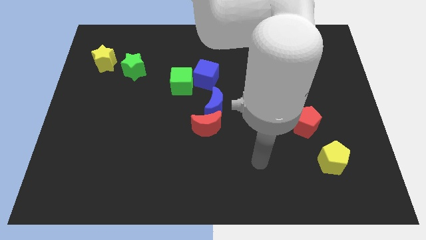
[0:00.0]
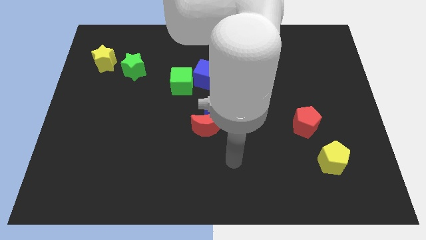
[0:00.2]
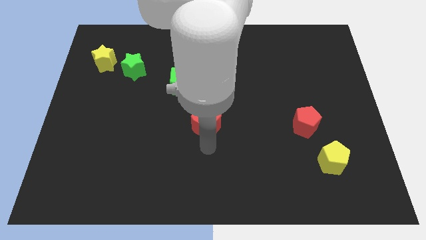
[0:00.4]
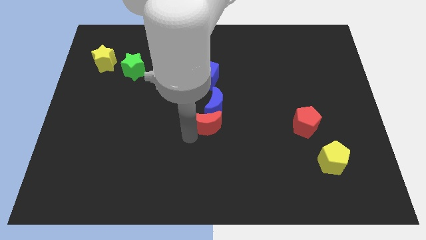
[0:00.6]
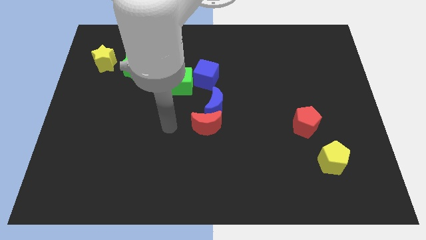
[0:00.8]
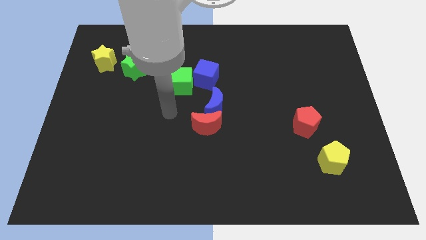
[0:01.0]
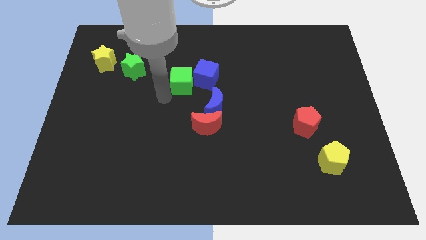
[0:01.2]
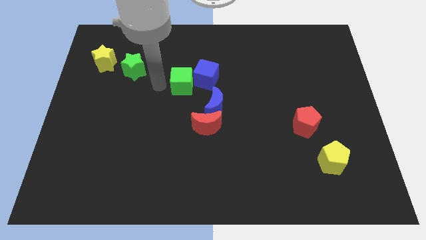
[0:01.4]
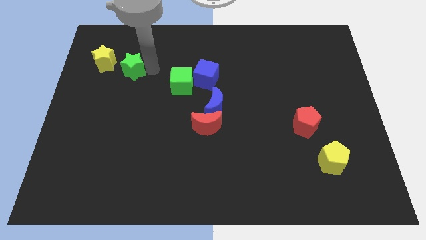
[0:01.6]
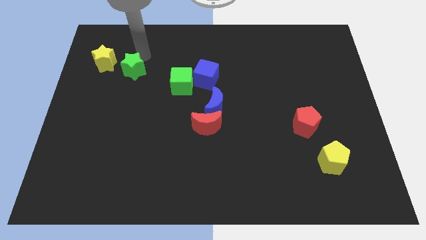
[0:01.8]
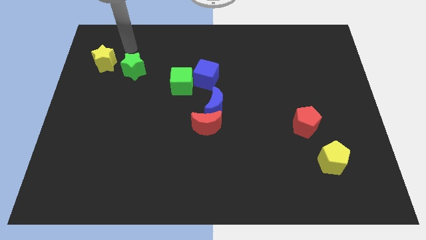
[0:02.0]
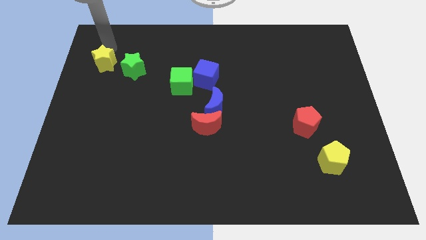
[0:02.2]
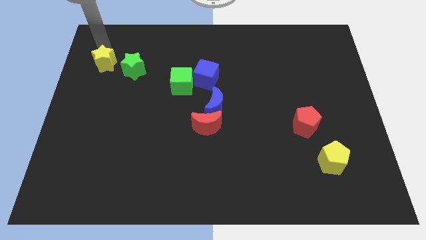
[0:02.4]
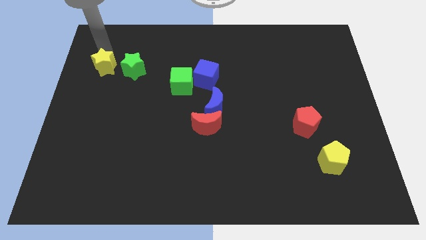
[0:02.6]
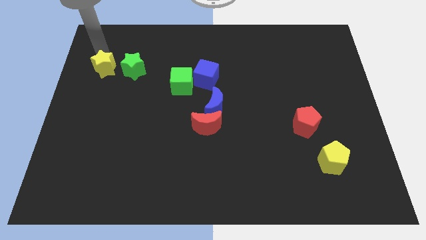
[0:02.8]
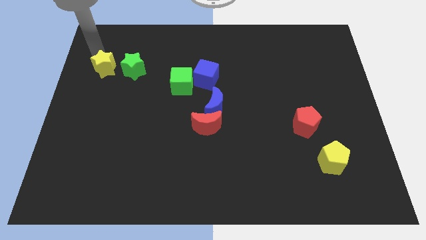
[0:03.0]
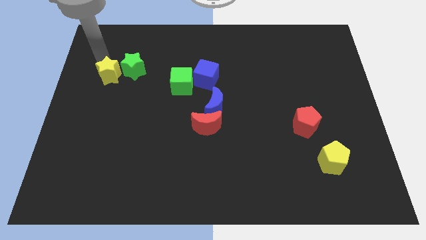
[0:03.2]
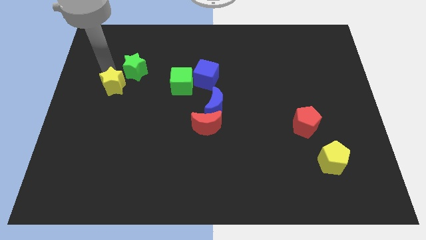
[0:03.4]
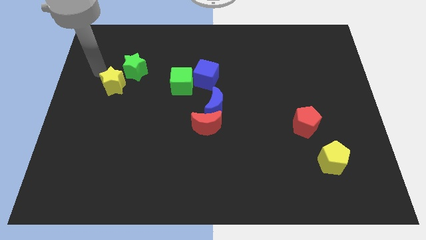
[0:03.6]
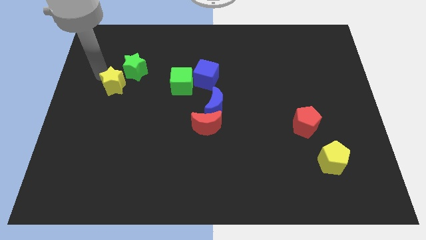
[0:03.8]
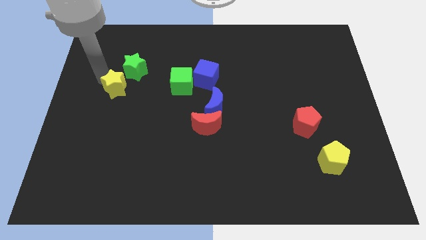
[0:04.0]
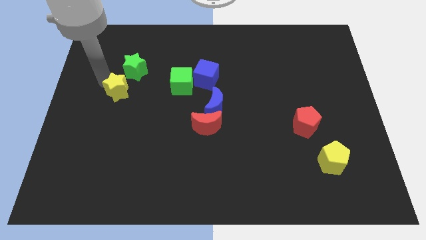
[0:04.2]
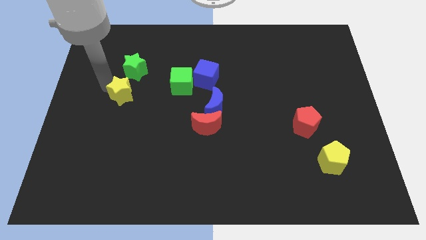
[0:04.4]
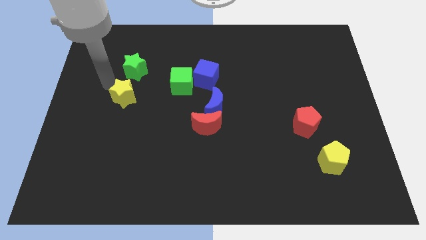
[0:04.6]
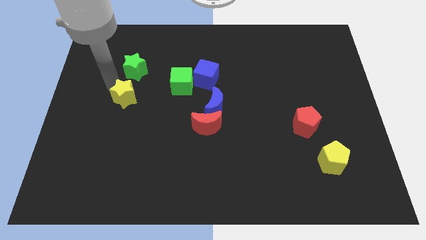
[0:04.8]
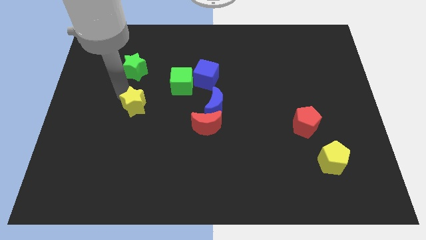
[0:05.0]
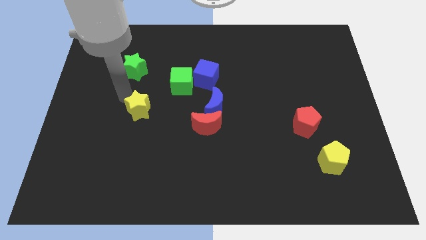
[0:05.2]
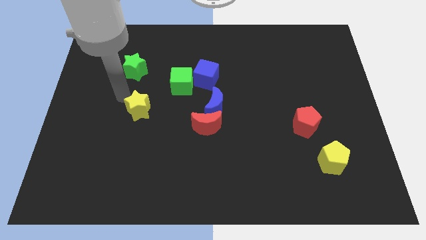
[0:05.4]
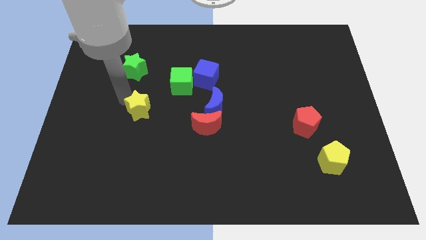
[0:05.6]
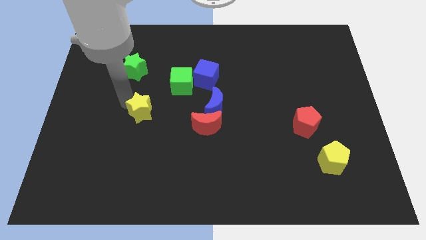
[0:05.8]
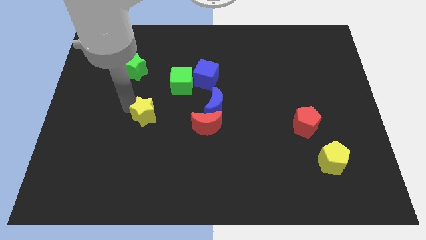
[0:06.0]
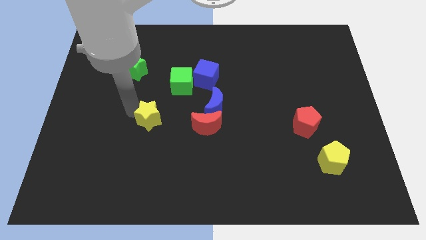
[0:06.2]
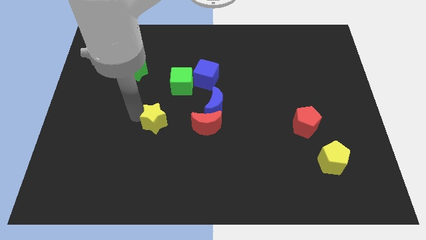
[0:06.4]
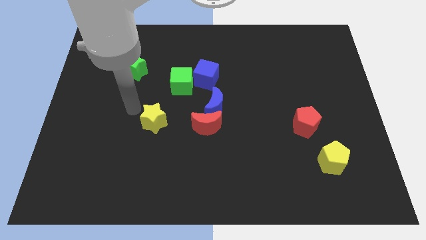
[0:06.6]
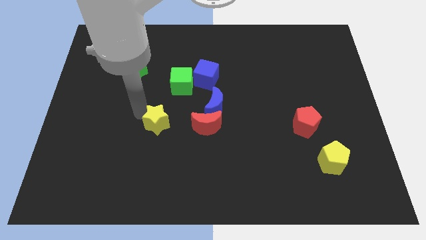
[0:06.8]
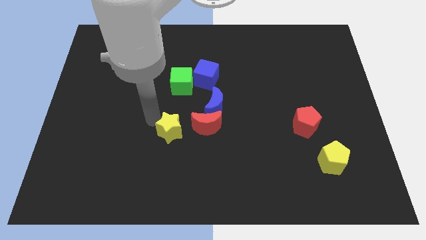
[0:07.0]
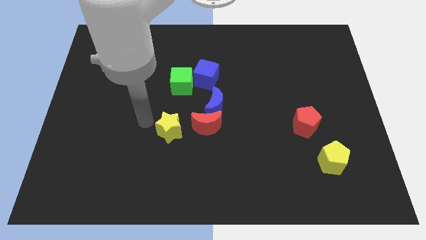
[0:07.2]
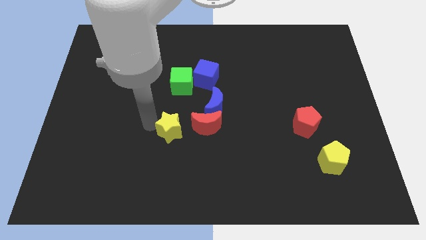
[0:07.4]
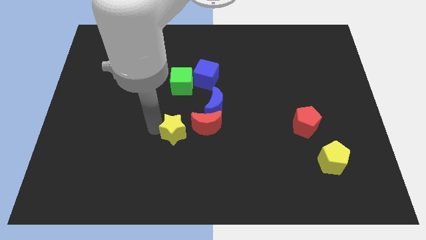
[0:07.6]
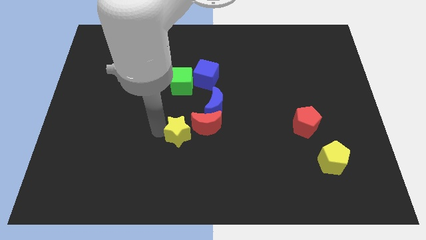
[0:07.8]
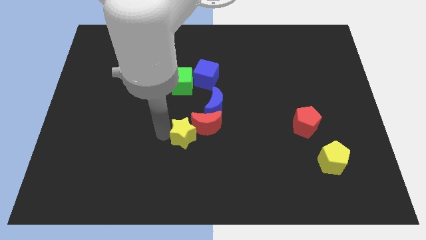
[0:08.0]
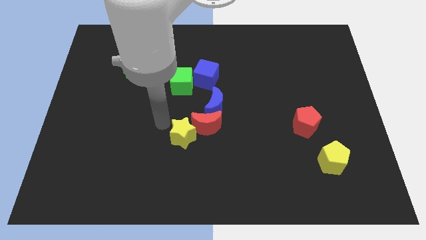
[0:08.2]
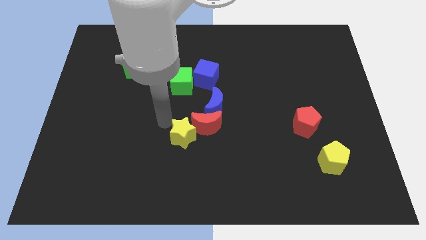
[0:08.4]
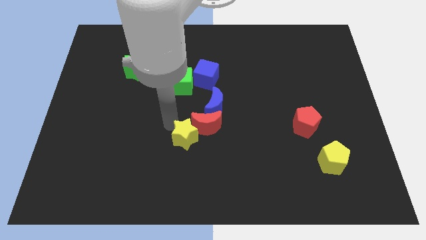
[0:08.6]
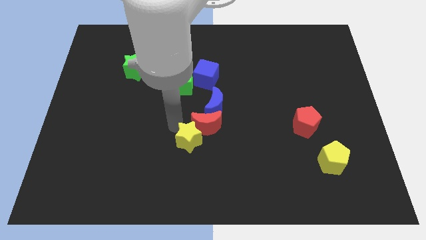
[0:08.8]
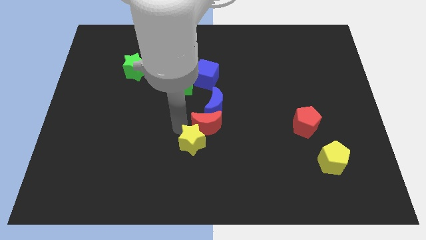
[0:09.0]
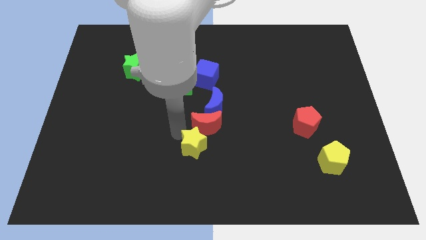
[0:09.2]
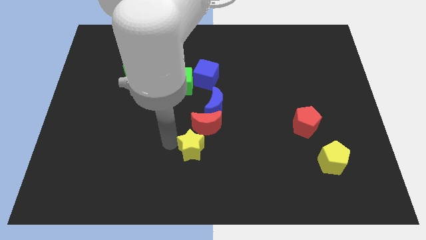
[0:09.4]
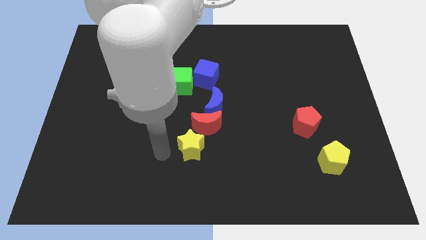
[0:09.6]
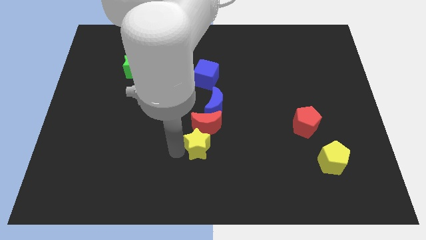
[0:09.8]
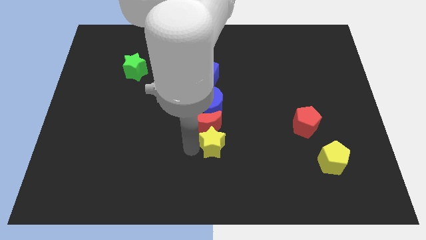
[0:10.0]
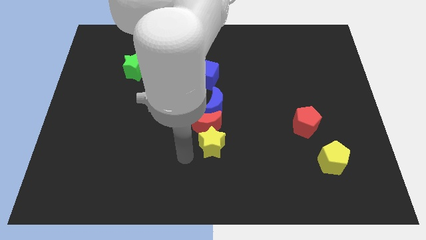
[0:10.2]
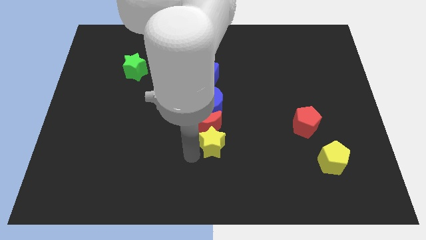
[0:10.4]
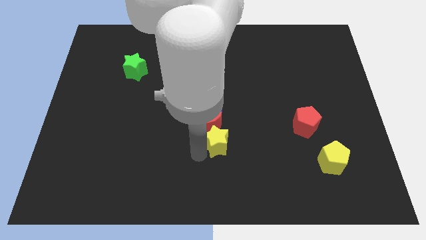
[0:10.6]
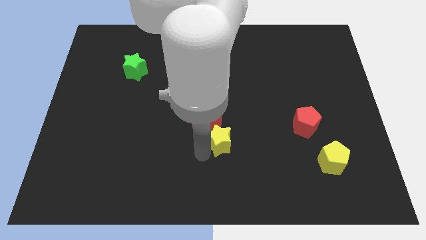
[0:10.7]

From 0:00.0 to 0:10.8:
push the yellow star to the right of the red moon

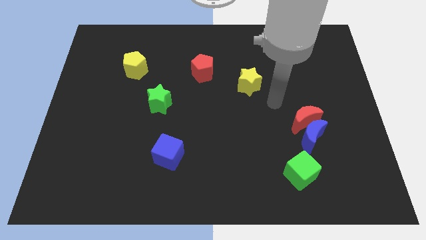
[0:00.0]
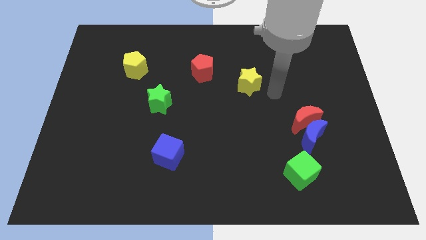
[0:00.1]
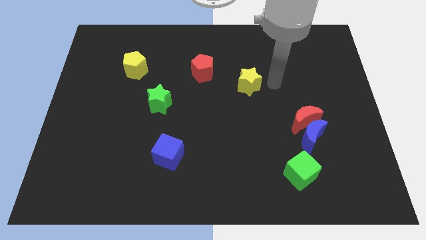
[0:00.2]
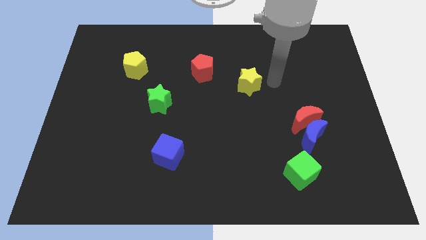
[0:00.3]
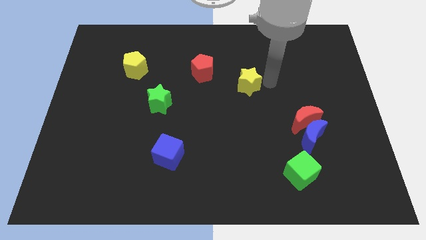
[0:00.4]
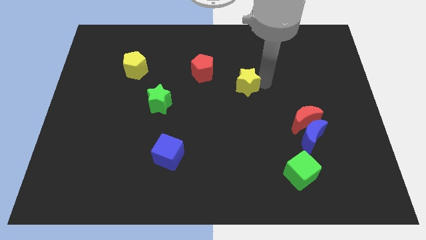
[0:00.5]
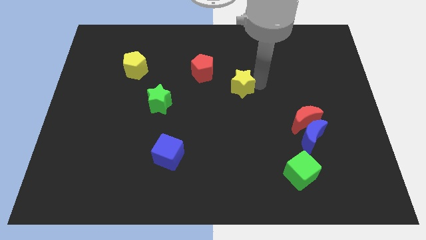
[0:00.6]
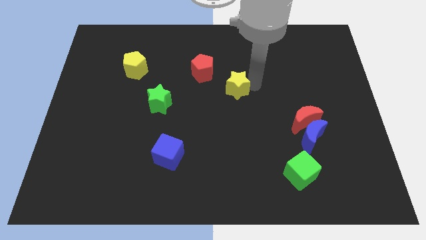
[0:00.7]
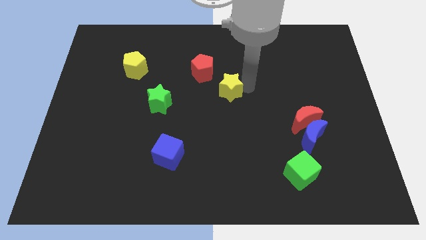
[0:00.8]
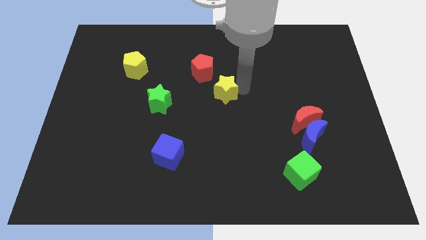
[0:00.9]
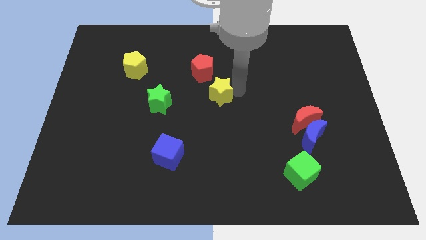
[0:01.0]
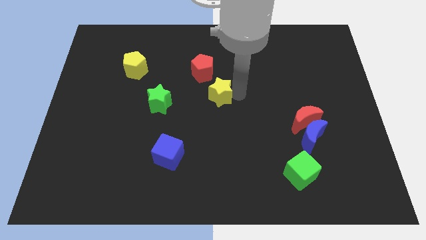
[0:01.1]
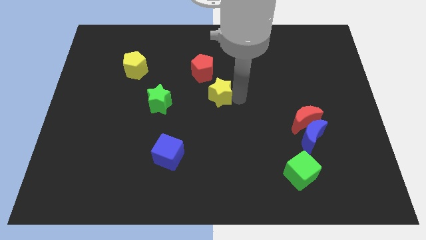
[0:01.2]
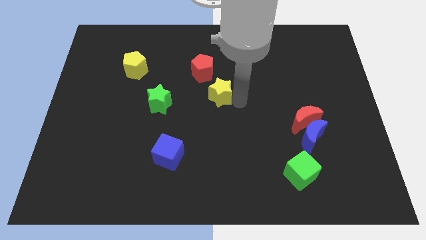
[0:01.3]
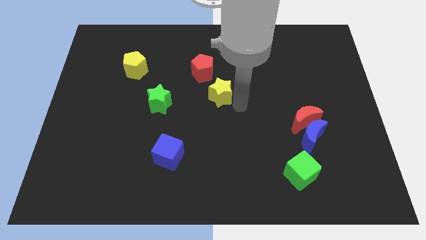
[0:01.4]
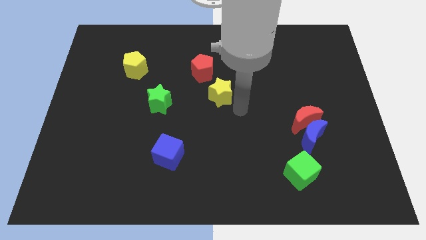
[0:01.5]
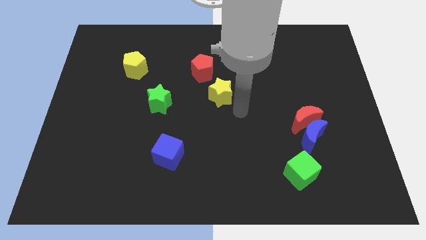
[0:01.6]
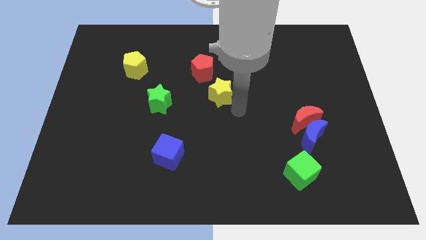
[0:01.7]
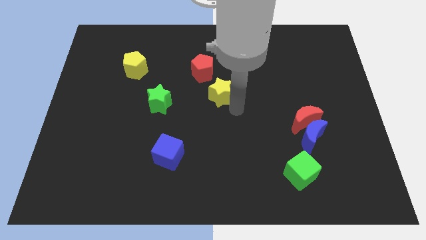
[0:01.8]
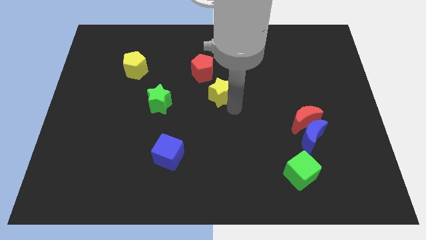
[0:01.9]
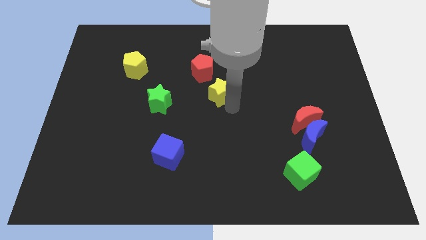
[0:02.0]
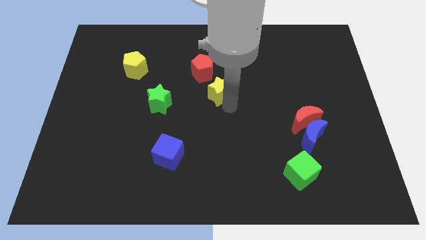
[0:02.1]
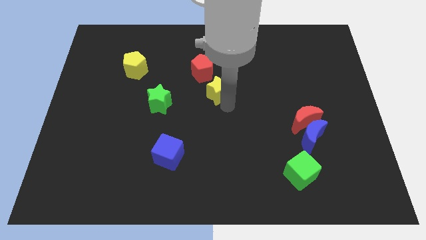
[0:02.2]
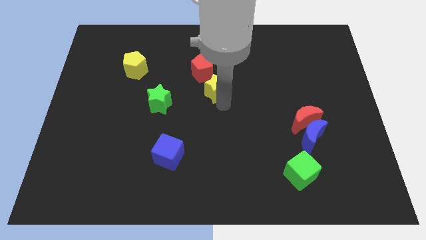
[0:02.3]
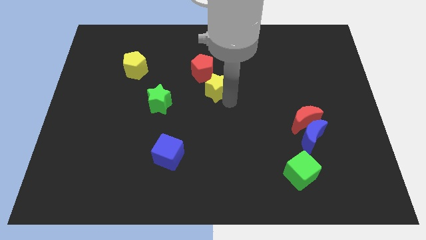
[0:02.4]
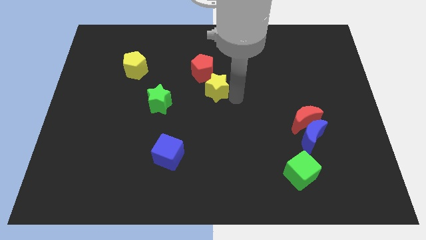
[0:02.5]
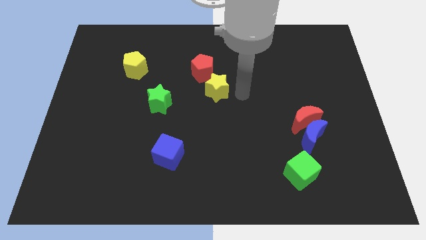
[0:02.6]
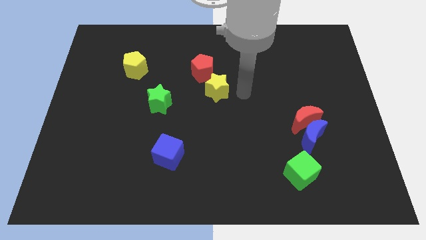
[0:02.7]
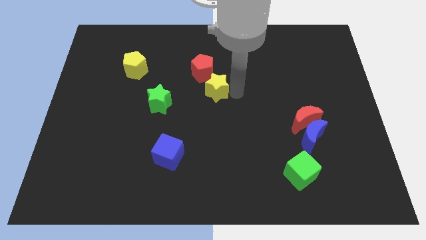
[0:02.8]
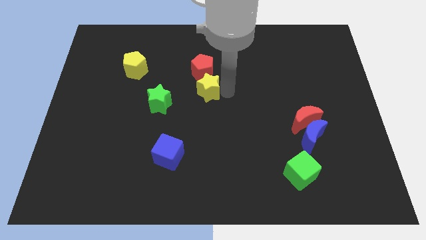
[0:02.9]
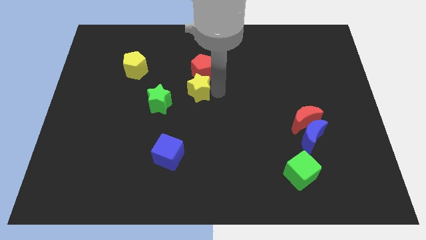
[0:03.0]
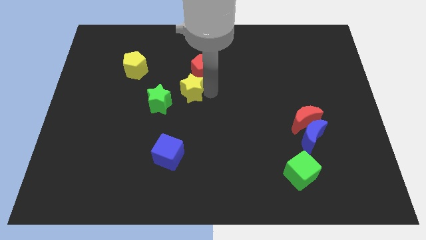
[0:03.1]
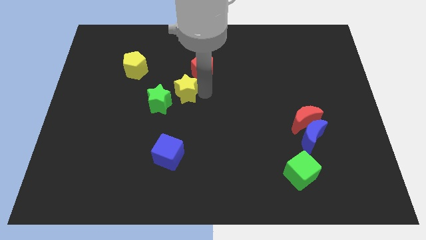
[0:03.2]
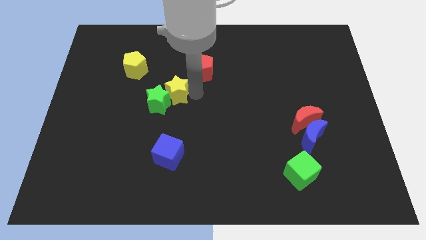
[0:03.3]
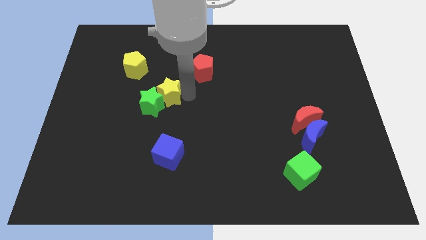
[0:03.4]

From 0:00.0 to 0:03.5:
put the yellow star to the bottom right side of the yellow pentagon
